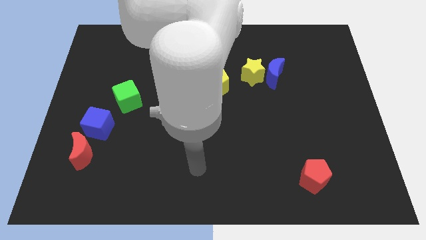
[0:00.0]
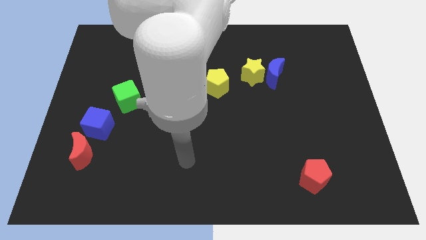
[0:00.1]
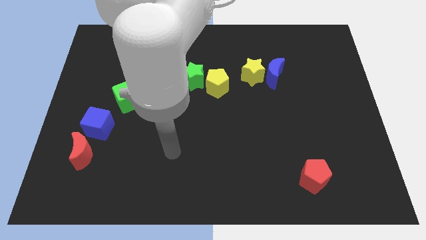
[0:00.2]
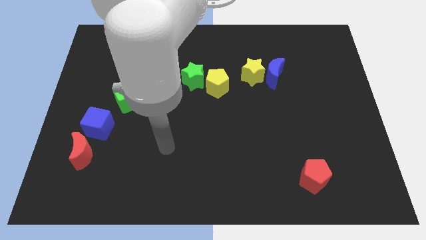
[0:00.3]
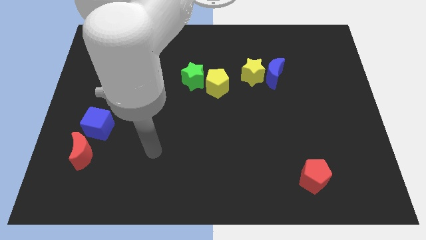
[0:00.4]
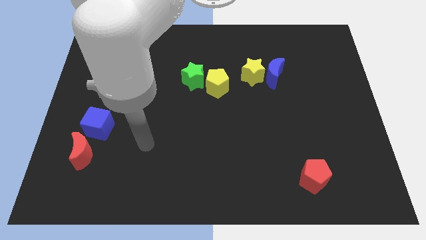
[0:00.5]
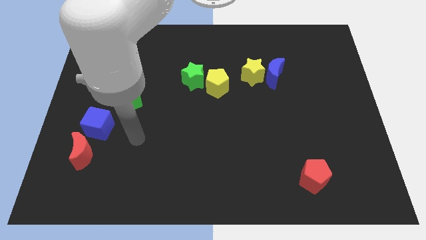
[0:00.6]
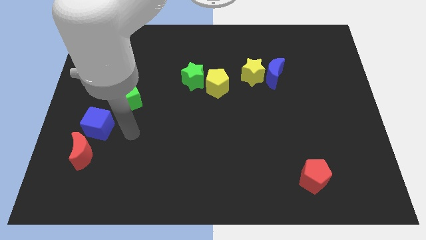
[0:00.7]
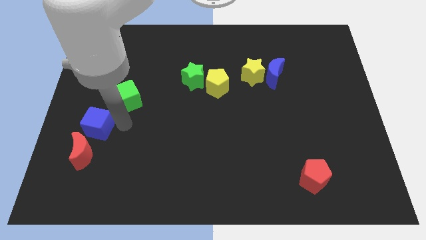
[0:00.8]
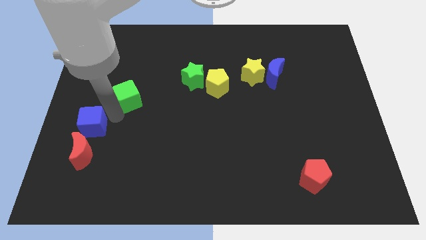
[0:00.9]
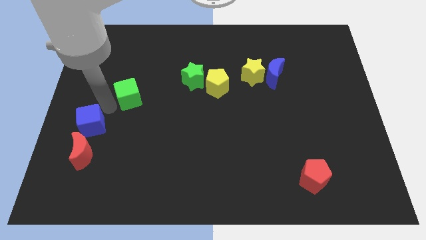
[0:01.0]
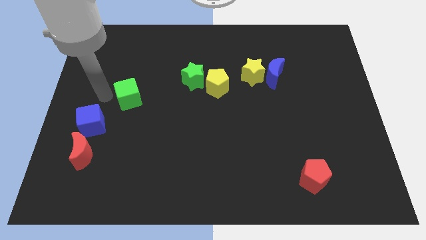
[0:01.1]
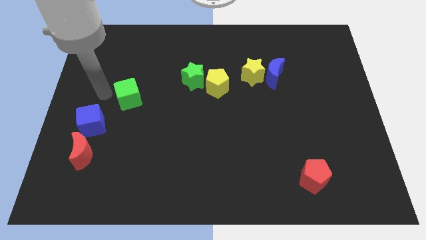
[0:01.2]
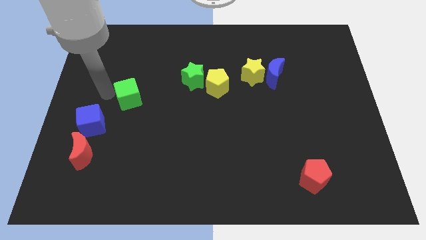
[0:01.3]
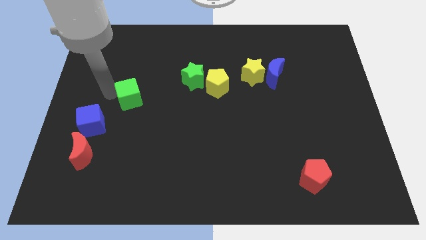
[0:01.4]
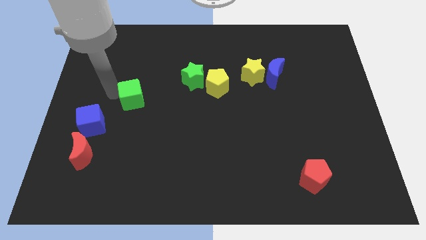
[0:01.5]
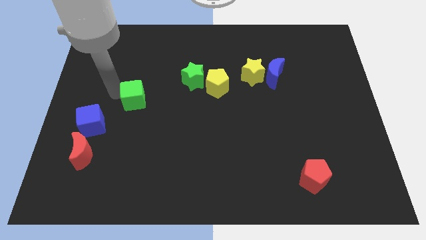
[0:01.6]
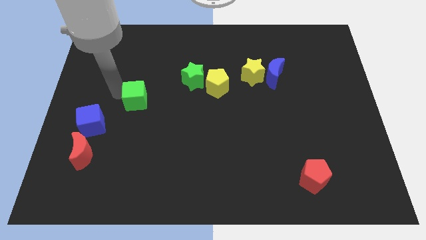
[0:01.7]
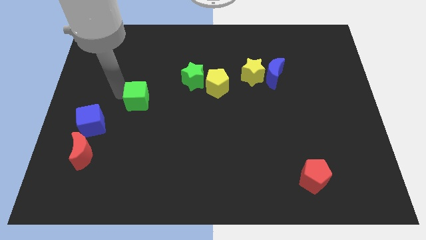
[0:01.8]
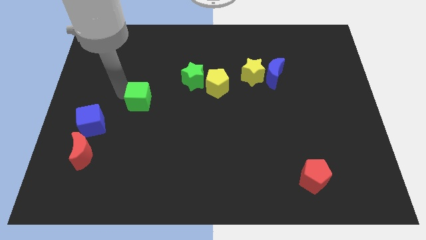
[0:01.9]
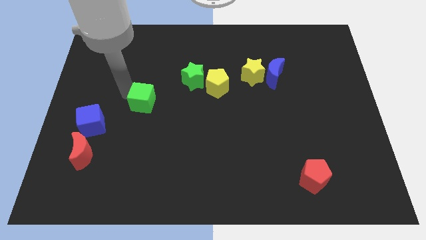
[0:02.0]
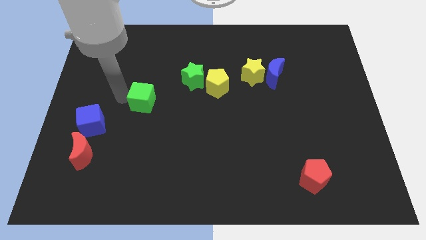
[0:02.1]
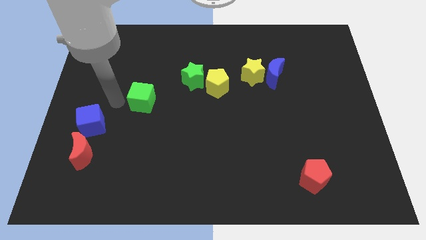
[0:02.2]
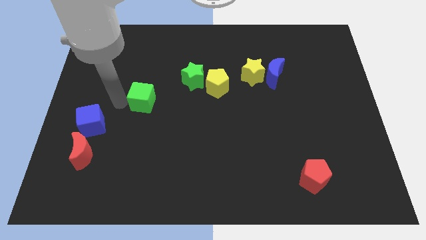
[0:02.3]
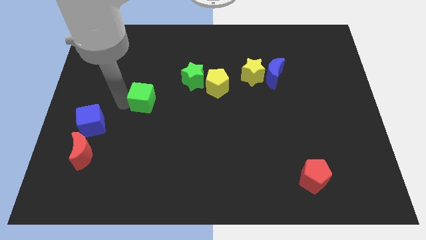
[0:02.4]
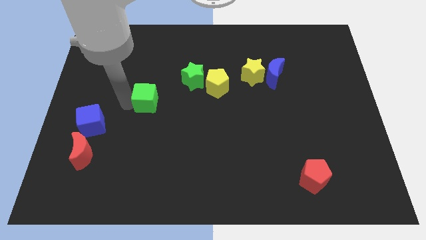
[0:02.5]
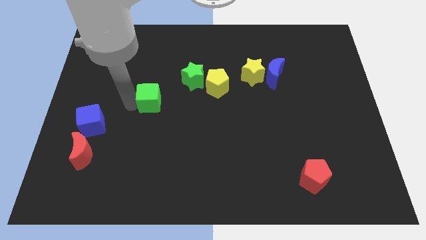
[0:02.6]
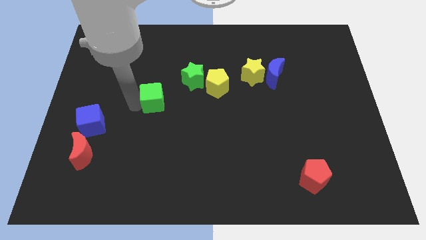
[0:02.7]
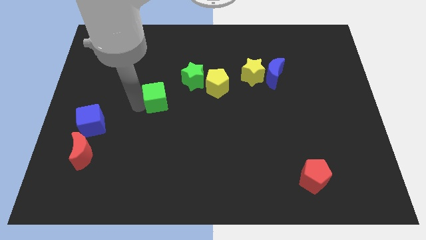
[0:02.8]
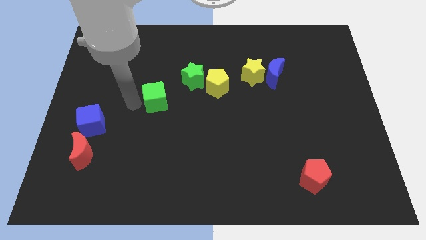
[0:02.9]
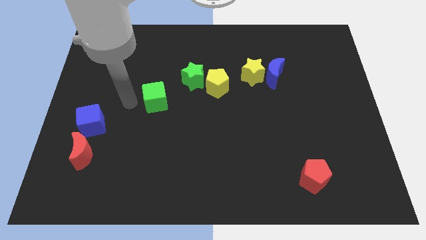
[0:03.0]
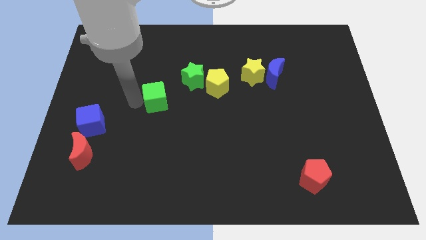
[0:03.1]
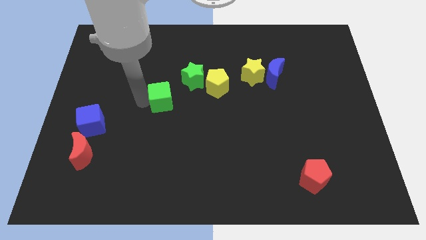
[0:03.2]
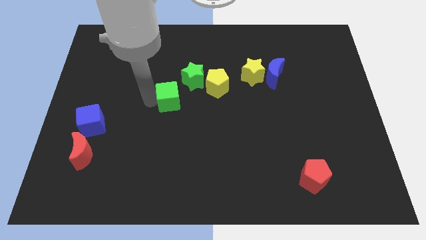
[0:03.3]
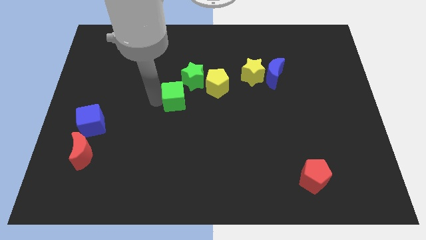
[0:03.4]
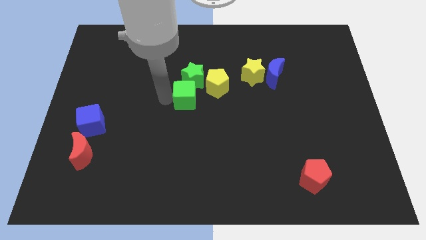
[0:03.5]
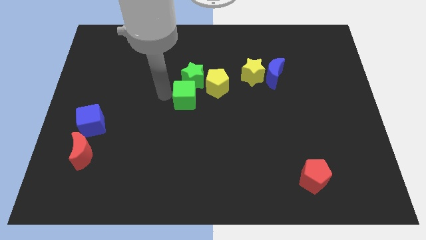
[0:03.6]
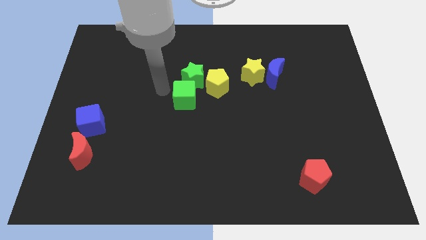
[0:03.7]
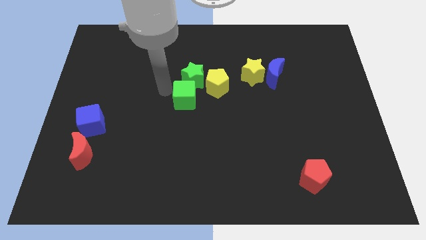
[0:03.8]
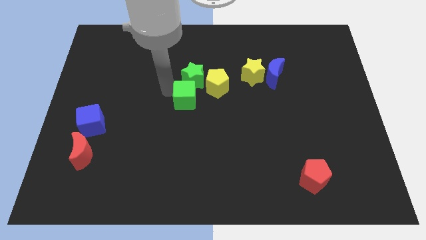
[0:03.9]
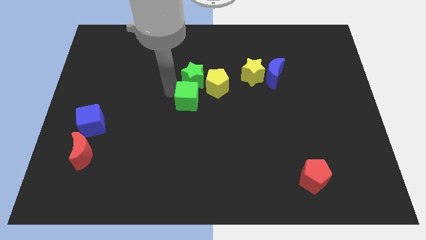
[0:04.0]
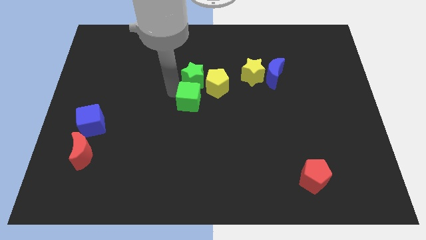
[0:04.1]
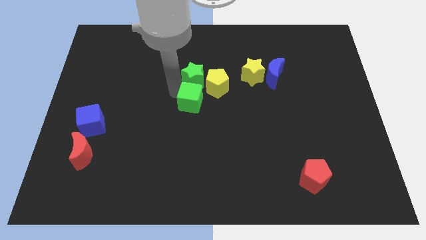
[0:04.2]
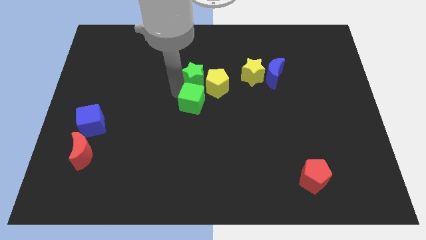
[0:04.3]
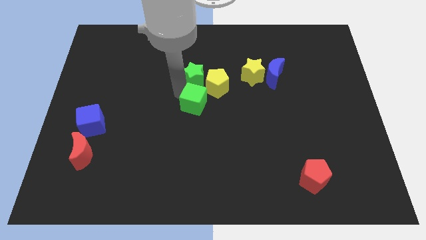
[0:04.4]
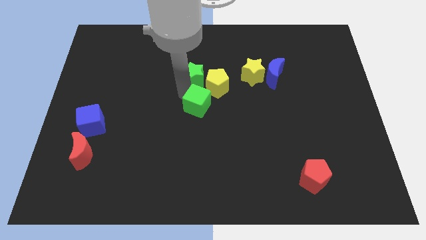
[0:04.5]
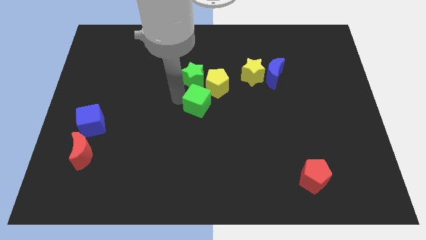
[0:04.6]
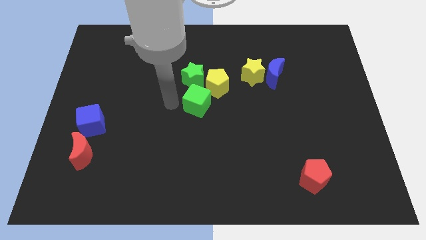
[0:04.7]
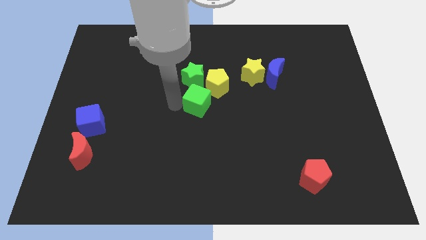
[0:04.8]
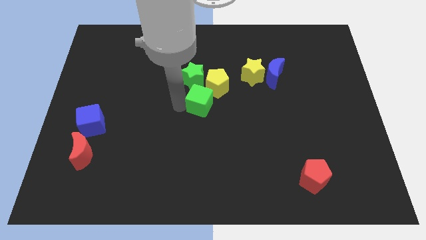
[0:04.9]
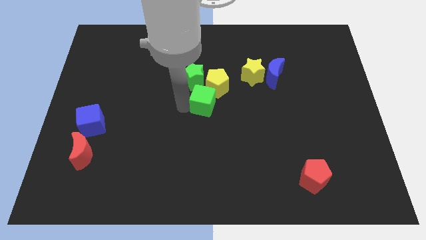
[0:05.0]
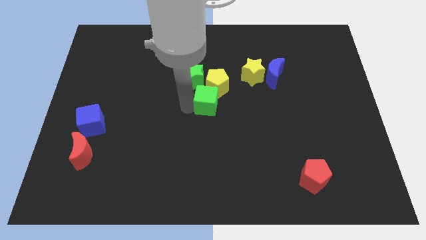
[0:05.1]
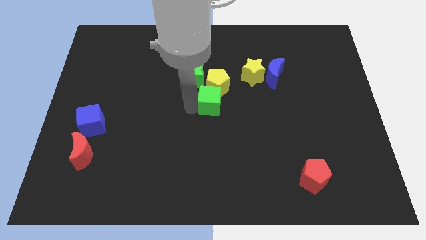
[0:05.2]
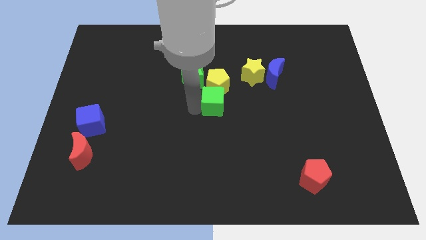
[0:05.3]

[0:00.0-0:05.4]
push the green cube to the right

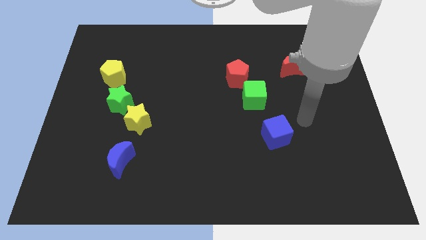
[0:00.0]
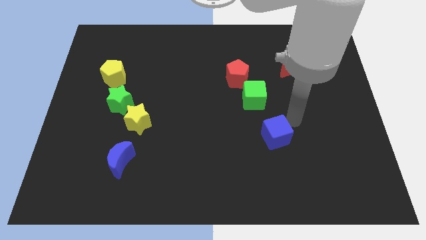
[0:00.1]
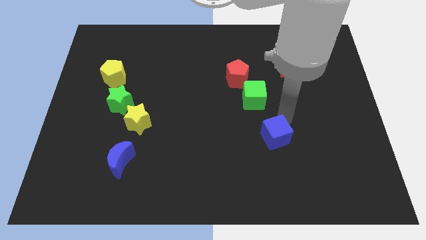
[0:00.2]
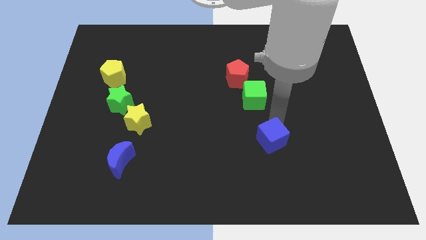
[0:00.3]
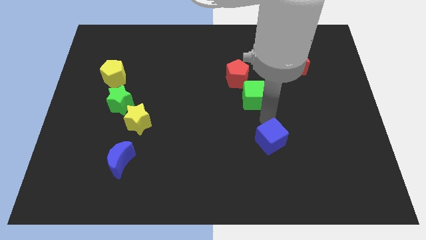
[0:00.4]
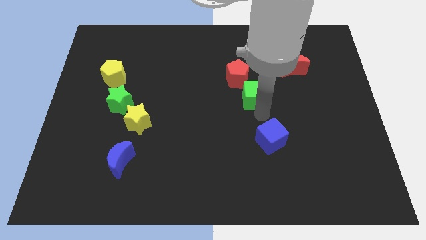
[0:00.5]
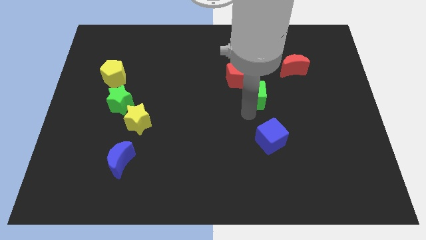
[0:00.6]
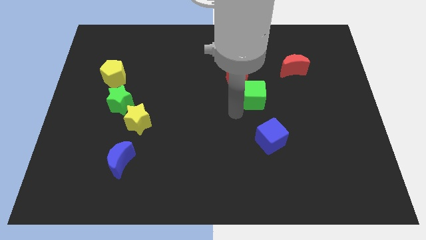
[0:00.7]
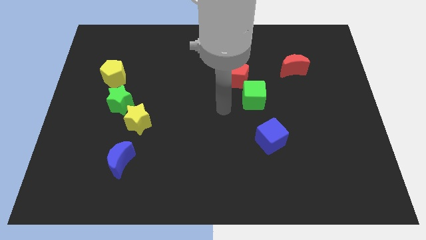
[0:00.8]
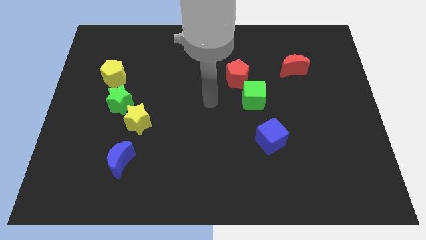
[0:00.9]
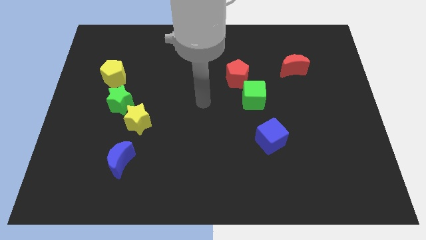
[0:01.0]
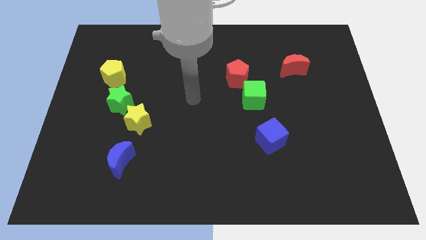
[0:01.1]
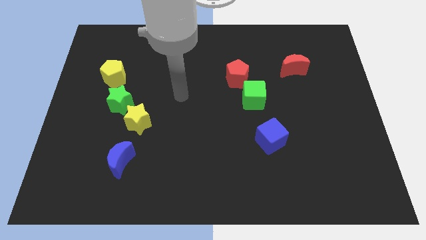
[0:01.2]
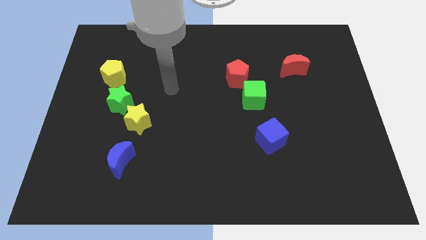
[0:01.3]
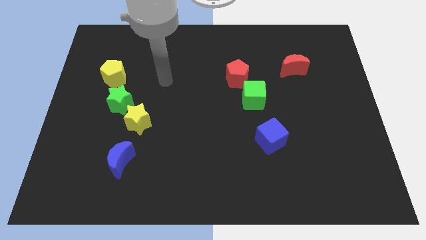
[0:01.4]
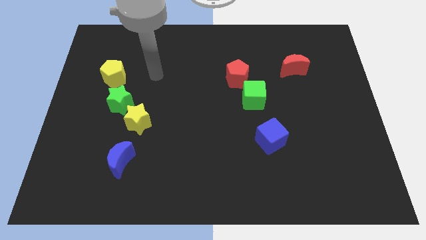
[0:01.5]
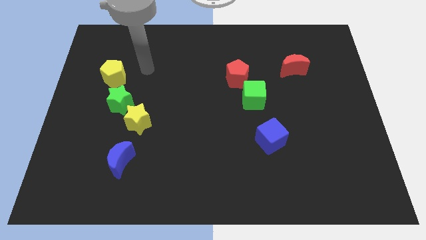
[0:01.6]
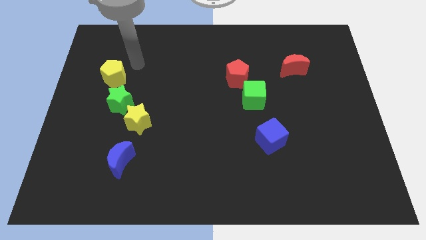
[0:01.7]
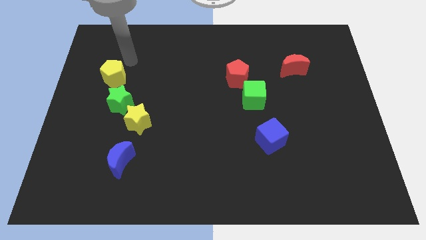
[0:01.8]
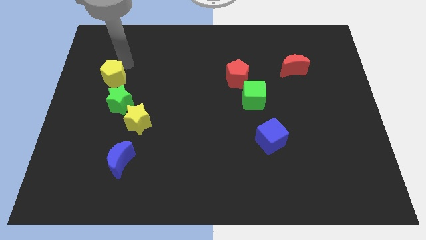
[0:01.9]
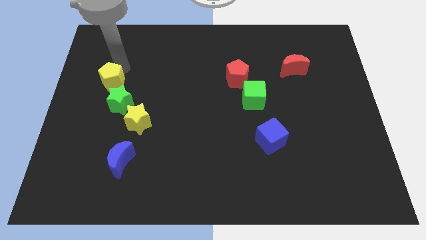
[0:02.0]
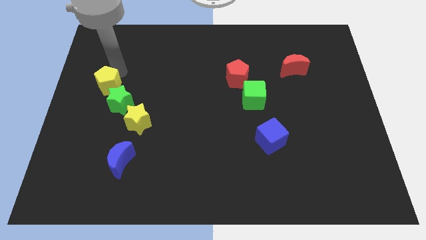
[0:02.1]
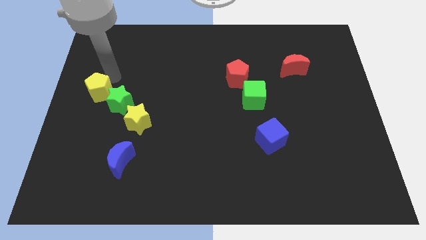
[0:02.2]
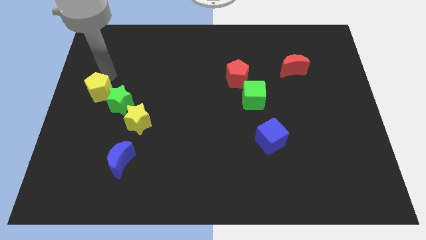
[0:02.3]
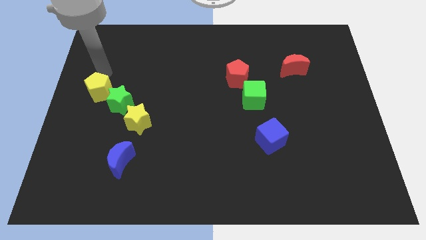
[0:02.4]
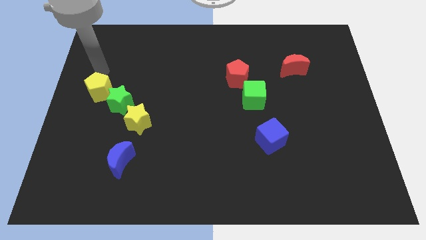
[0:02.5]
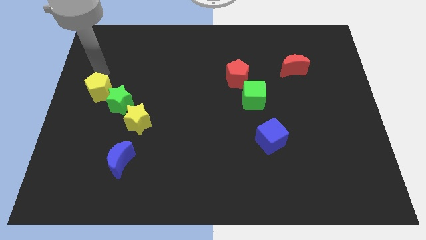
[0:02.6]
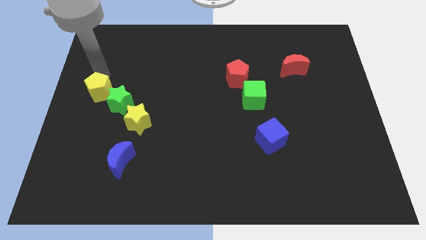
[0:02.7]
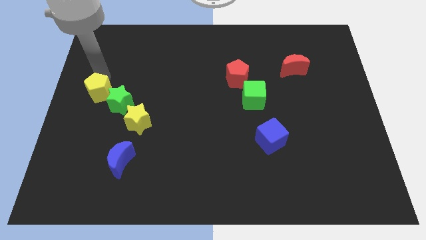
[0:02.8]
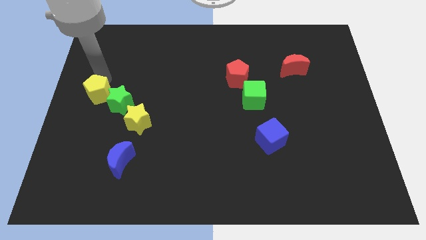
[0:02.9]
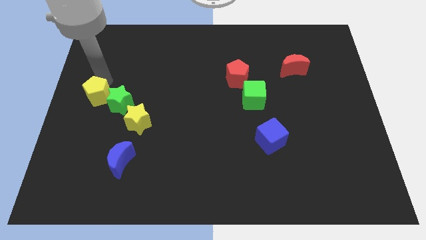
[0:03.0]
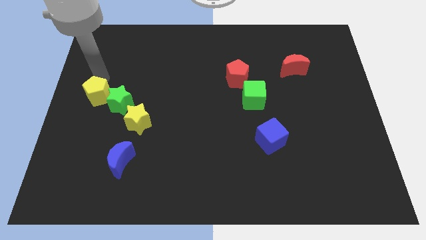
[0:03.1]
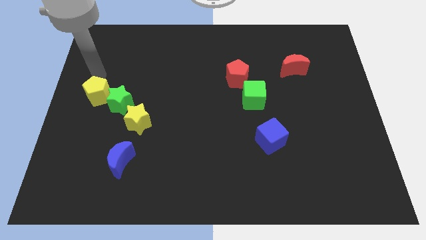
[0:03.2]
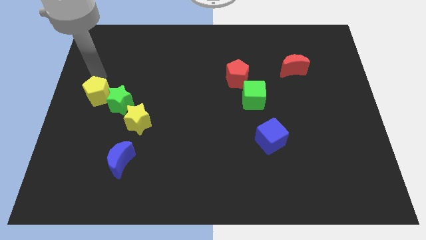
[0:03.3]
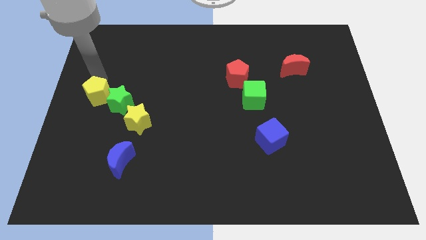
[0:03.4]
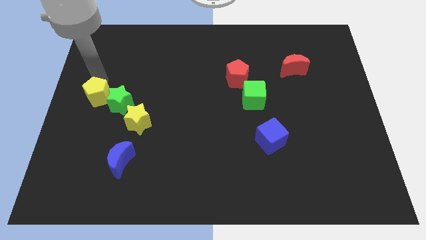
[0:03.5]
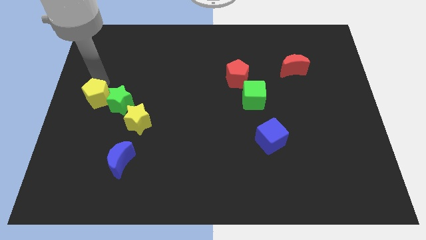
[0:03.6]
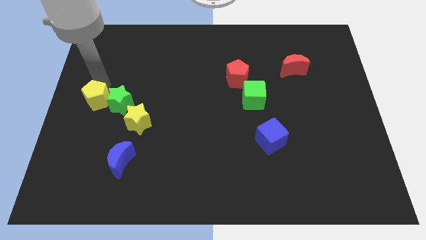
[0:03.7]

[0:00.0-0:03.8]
push the yellow pentagon a bit down
